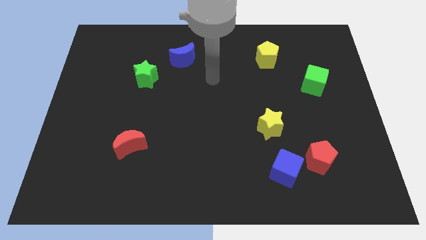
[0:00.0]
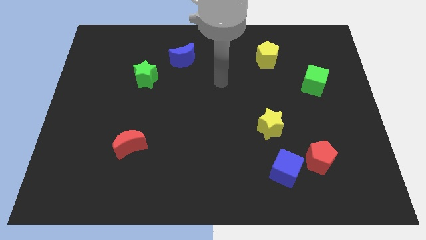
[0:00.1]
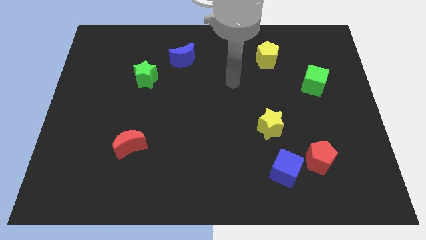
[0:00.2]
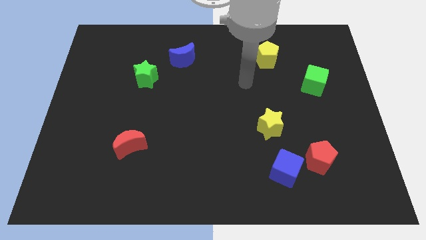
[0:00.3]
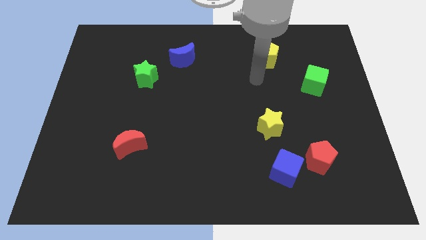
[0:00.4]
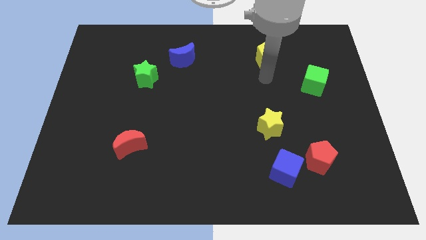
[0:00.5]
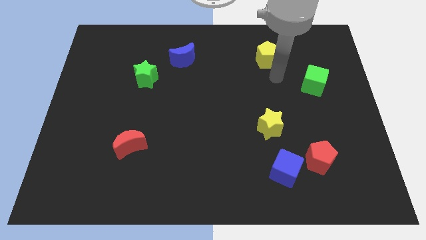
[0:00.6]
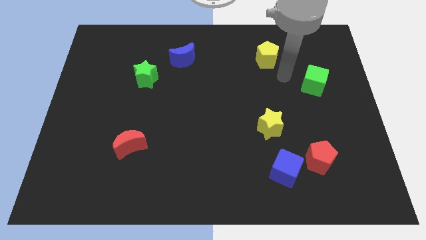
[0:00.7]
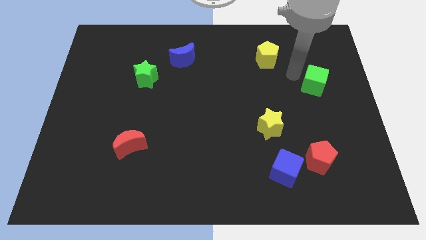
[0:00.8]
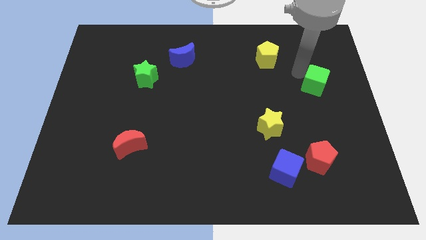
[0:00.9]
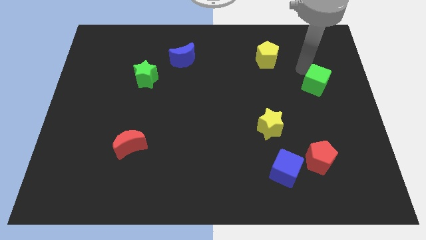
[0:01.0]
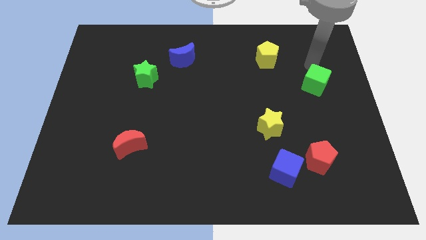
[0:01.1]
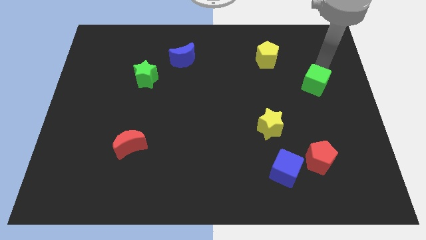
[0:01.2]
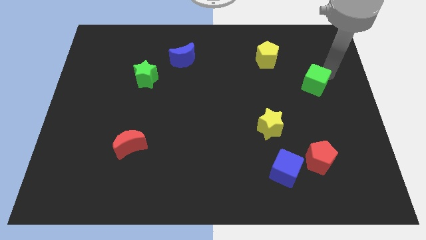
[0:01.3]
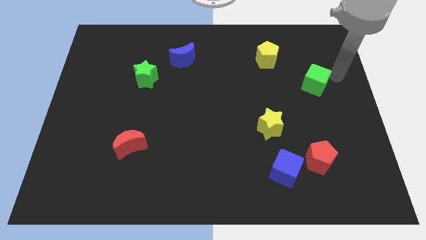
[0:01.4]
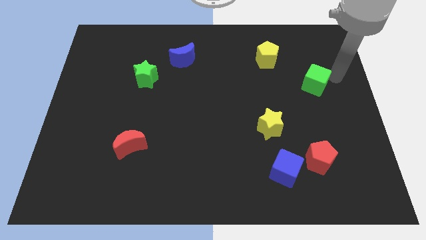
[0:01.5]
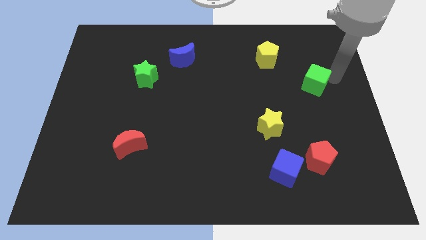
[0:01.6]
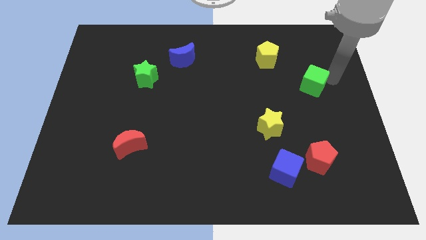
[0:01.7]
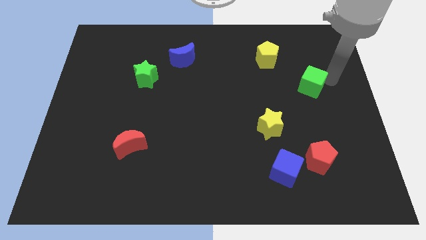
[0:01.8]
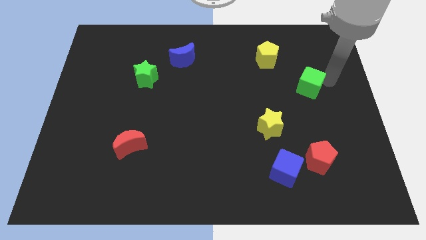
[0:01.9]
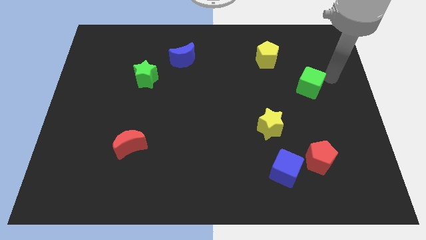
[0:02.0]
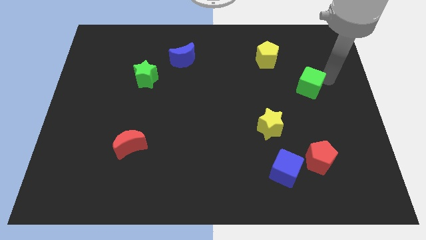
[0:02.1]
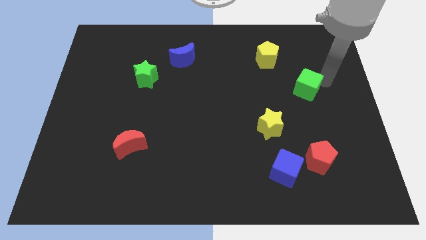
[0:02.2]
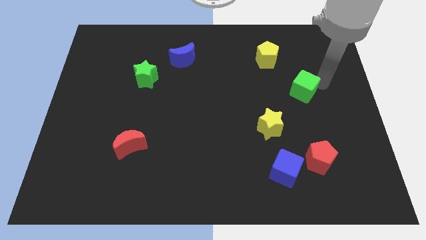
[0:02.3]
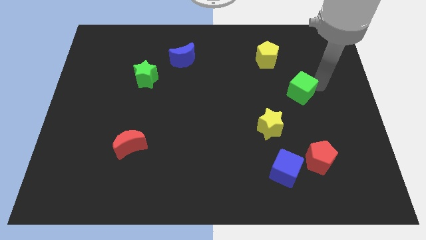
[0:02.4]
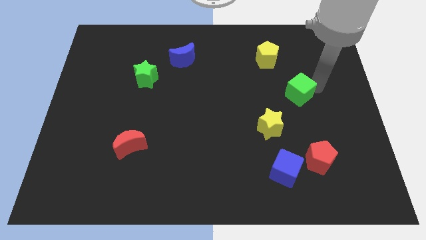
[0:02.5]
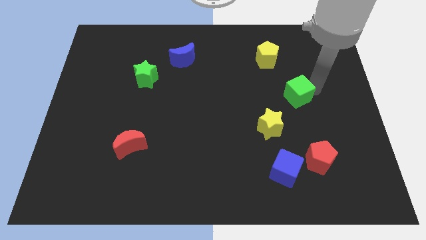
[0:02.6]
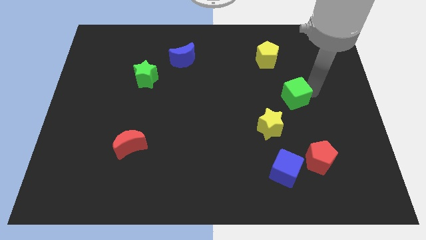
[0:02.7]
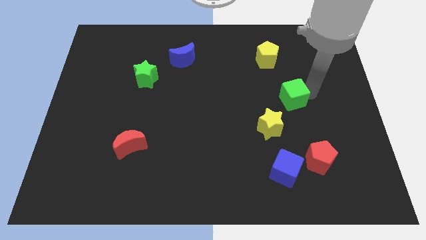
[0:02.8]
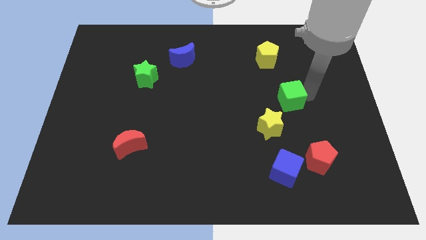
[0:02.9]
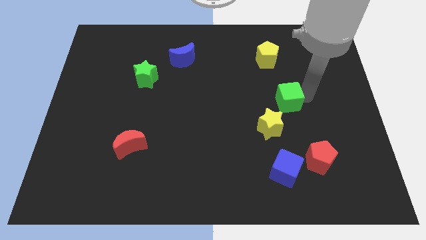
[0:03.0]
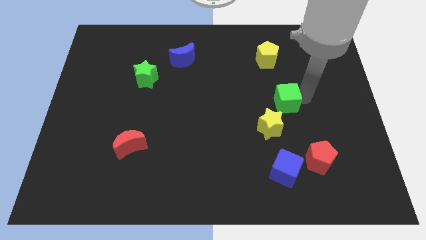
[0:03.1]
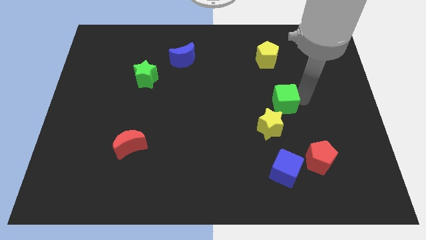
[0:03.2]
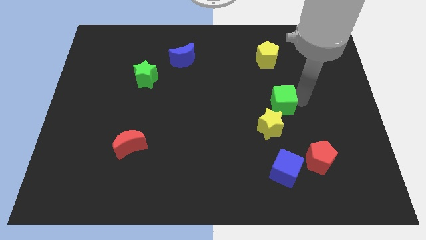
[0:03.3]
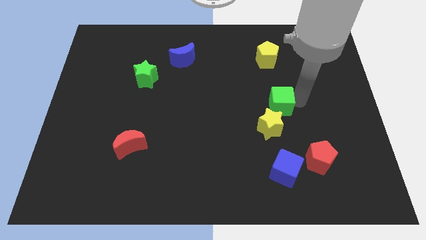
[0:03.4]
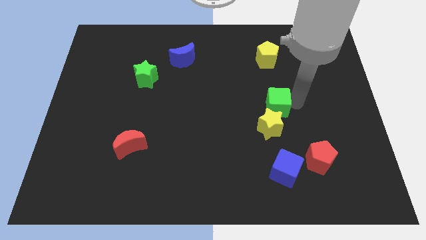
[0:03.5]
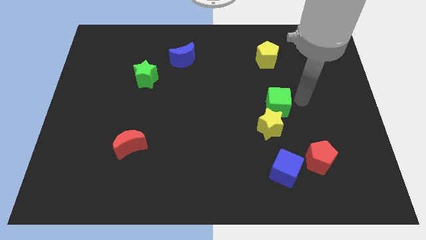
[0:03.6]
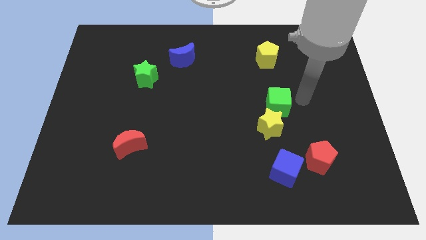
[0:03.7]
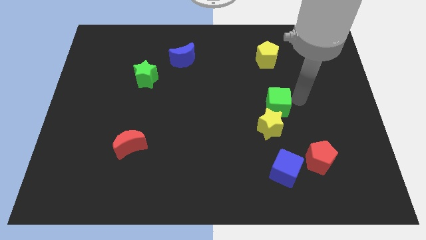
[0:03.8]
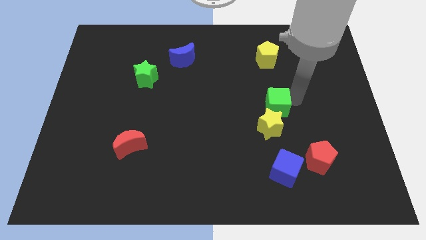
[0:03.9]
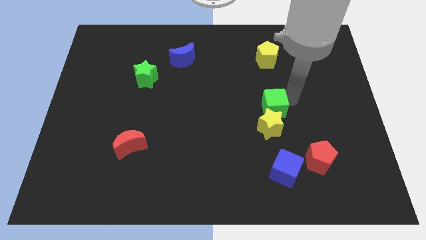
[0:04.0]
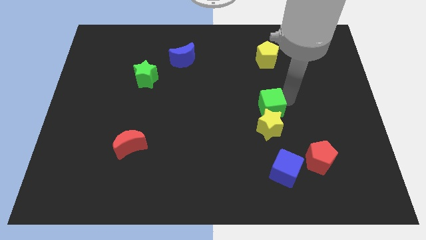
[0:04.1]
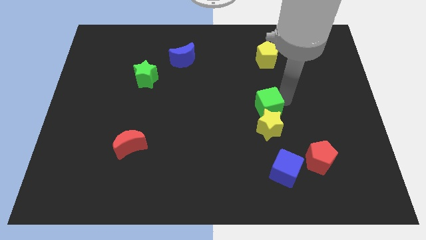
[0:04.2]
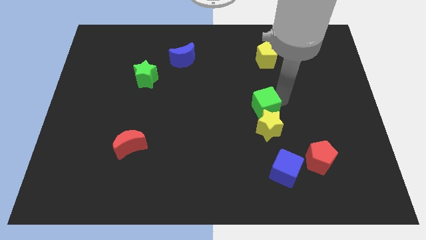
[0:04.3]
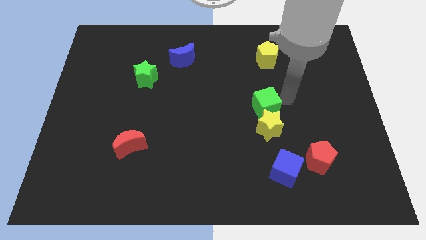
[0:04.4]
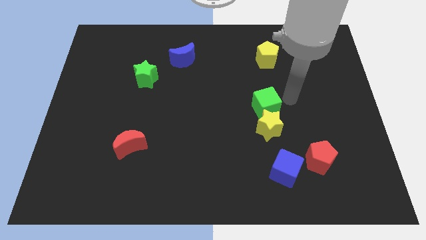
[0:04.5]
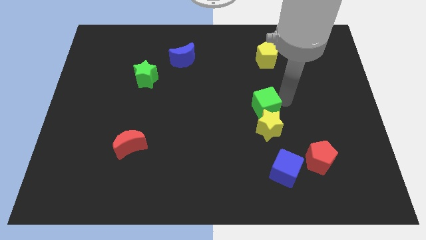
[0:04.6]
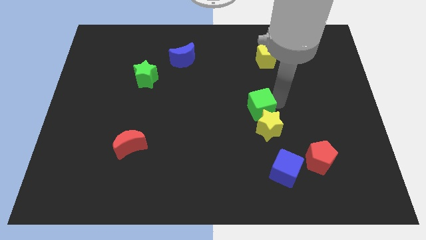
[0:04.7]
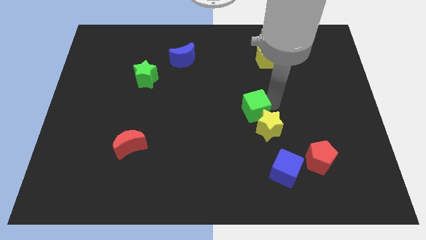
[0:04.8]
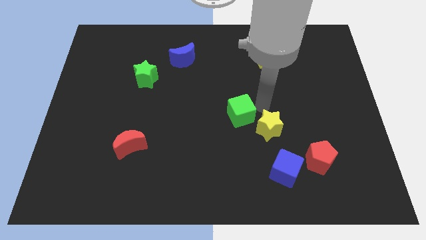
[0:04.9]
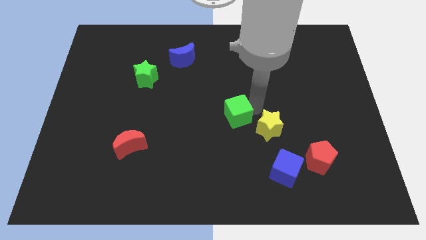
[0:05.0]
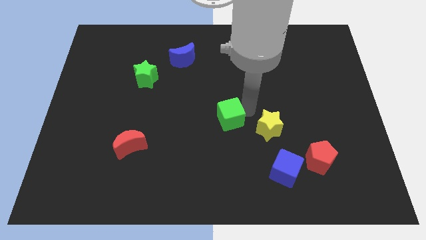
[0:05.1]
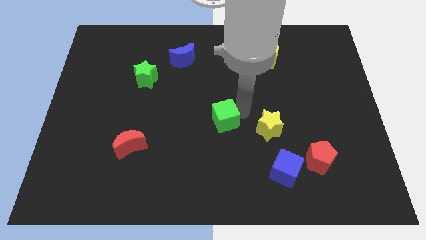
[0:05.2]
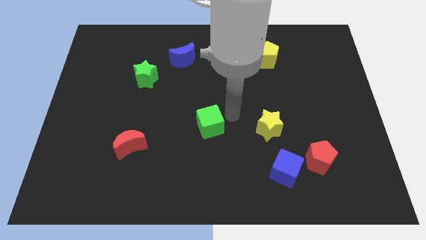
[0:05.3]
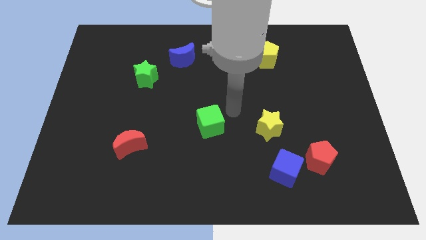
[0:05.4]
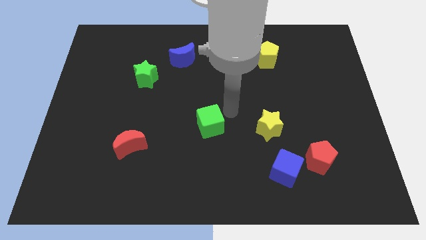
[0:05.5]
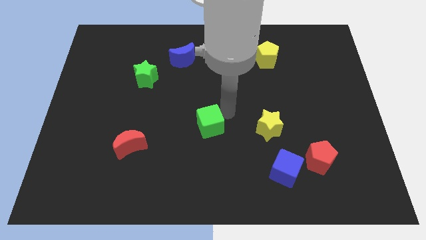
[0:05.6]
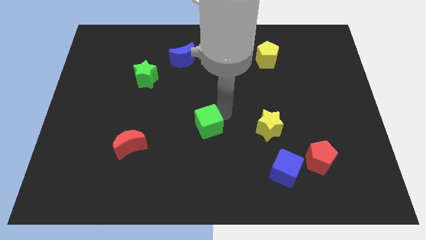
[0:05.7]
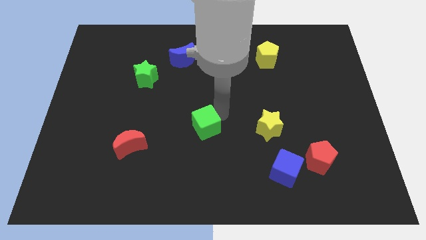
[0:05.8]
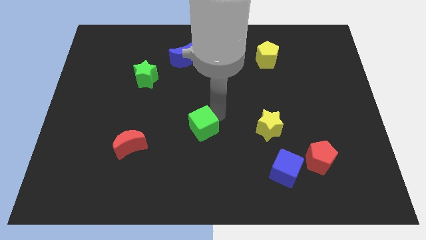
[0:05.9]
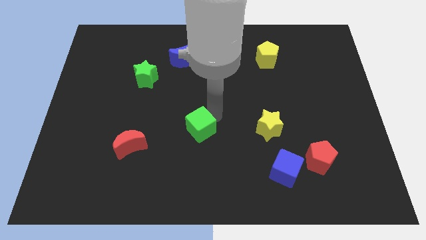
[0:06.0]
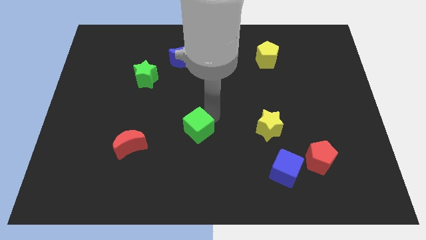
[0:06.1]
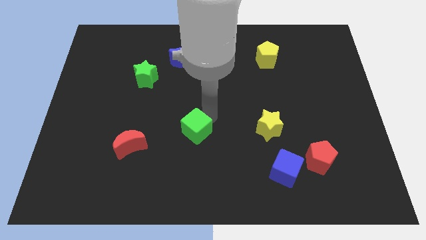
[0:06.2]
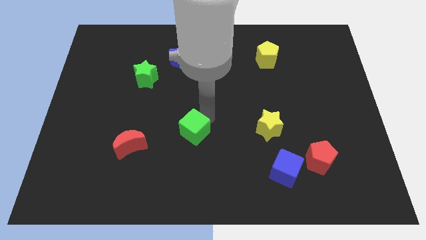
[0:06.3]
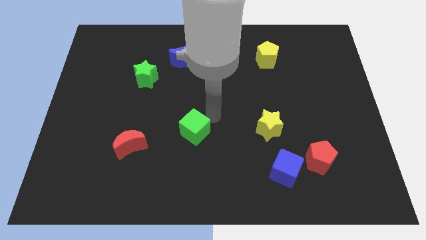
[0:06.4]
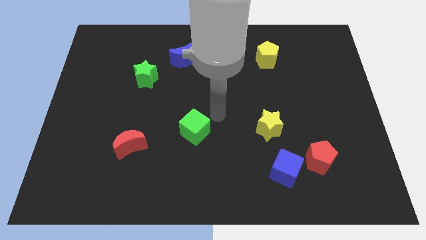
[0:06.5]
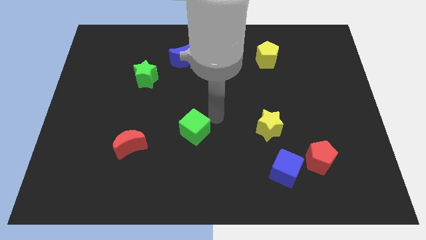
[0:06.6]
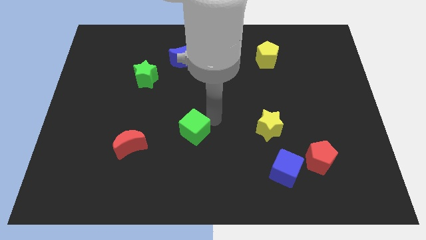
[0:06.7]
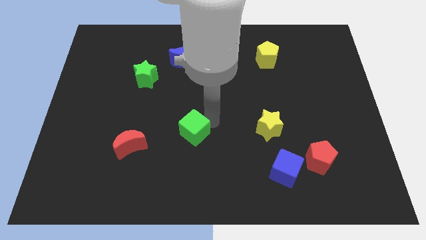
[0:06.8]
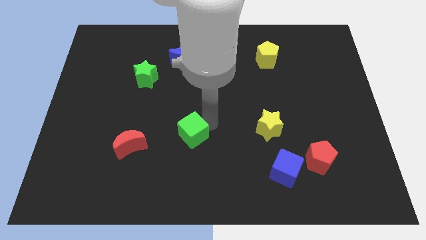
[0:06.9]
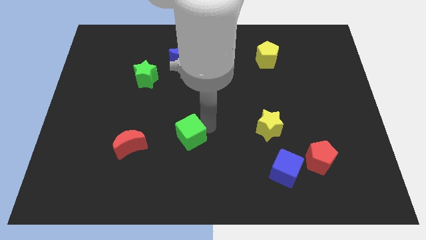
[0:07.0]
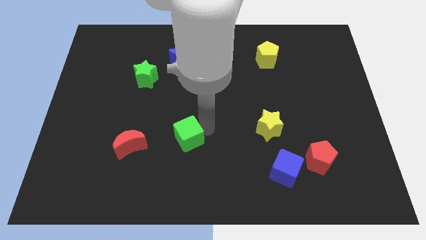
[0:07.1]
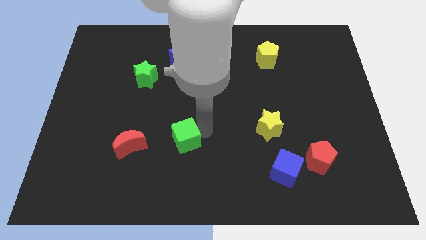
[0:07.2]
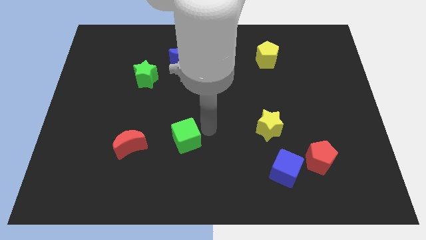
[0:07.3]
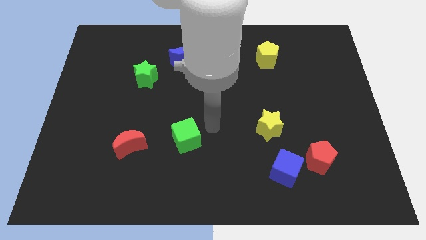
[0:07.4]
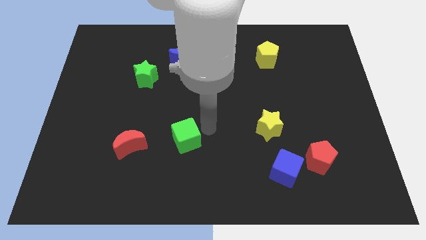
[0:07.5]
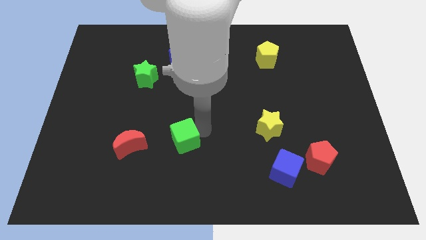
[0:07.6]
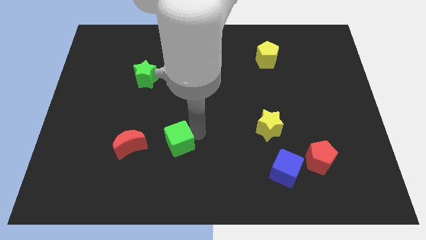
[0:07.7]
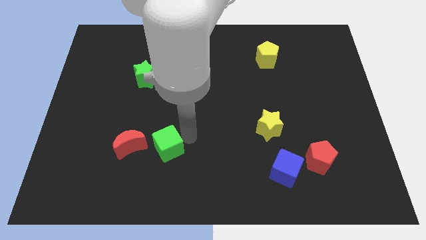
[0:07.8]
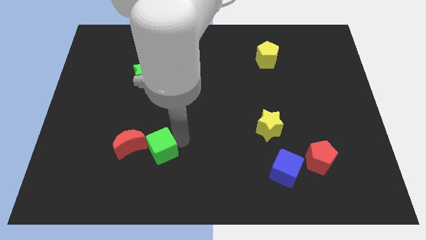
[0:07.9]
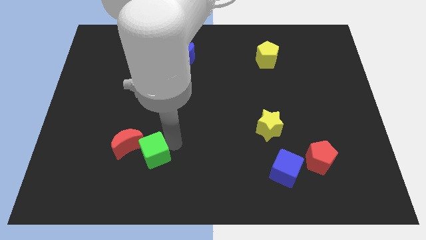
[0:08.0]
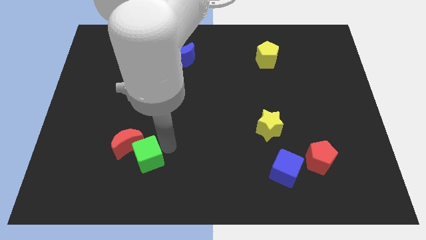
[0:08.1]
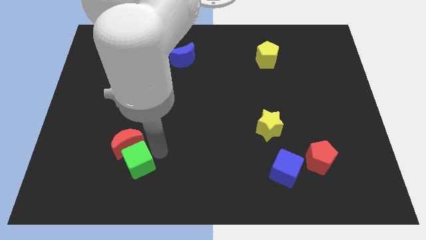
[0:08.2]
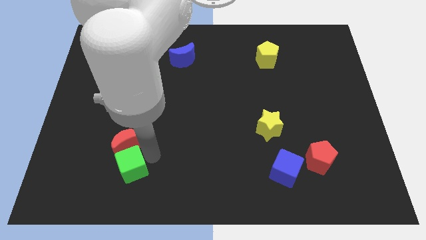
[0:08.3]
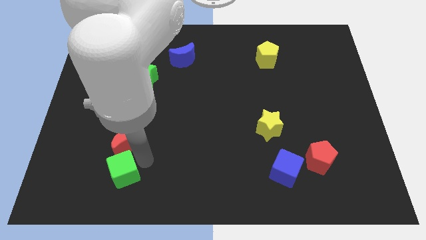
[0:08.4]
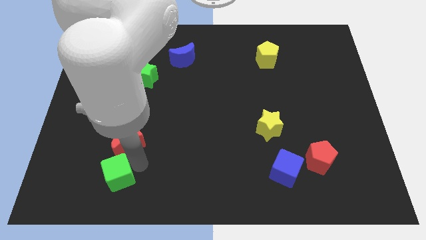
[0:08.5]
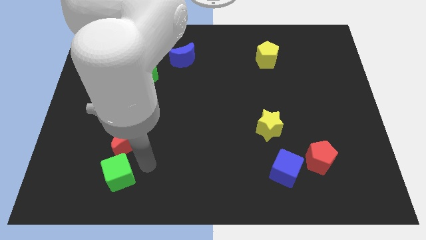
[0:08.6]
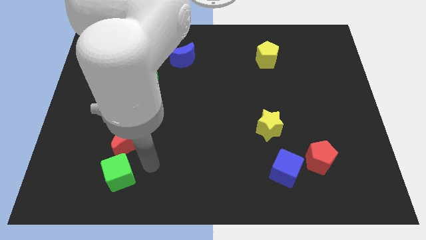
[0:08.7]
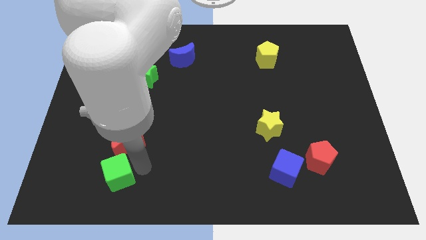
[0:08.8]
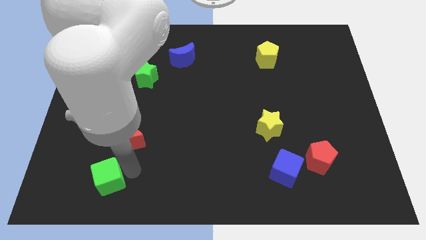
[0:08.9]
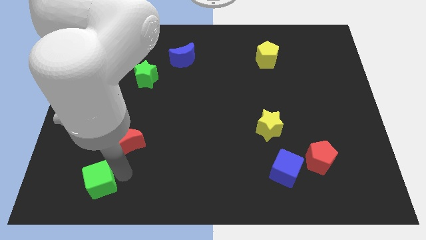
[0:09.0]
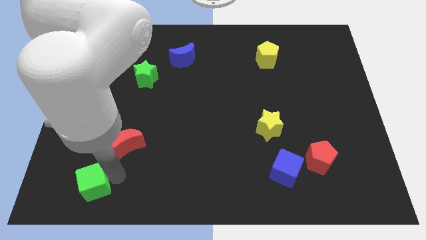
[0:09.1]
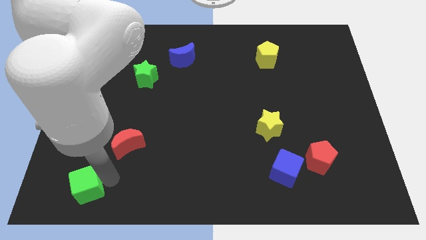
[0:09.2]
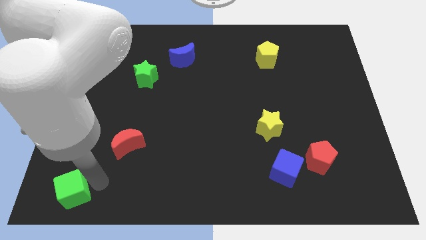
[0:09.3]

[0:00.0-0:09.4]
put the green cube to the bottom left of the board
